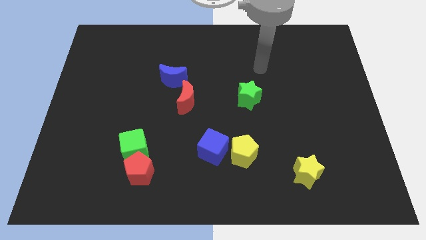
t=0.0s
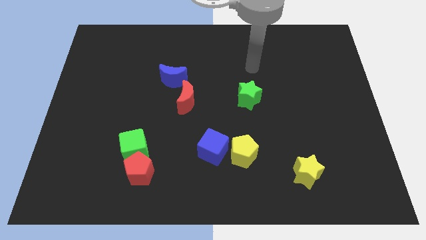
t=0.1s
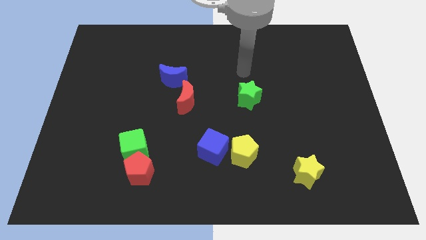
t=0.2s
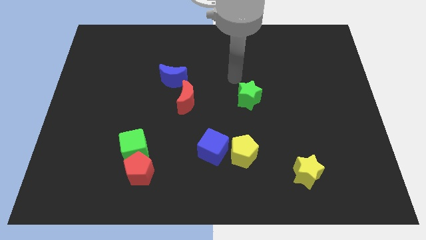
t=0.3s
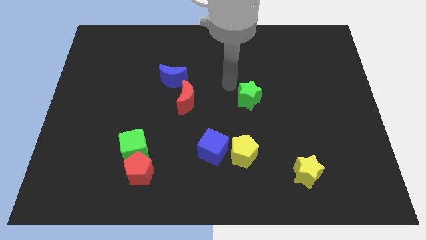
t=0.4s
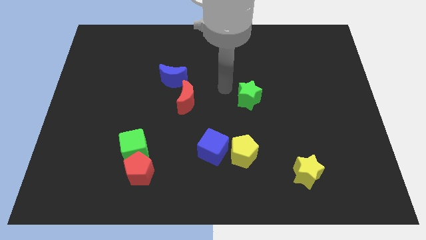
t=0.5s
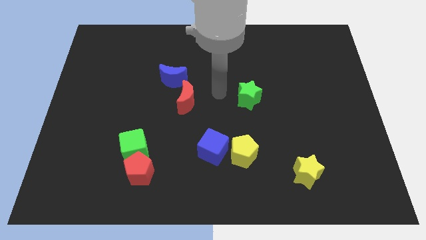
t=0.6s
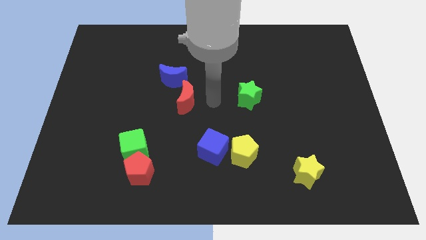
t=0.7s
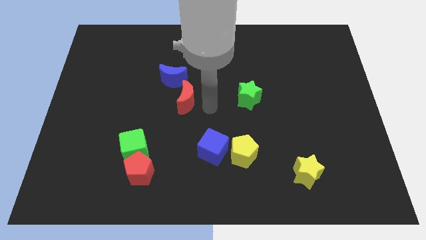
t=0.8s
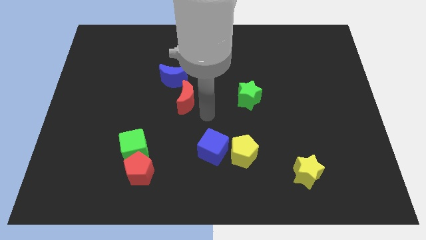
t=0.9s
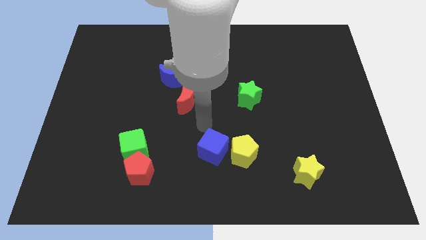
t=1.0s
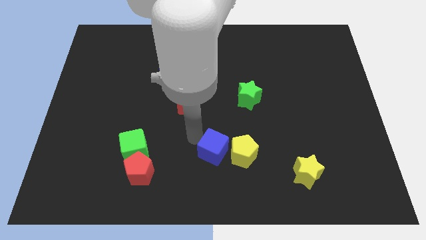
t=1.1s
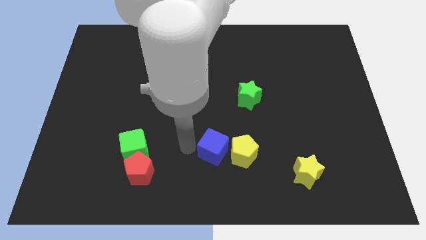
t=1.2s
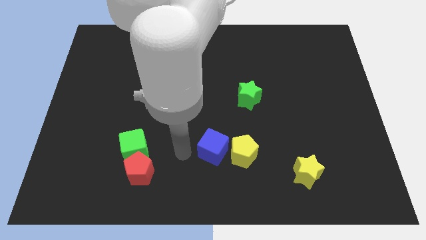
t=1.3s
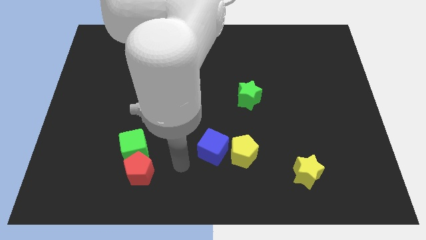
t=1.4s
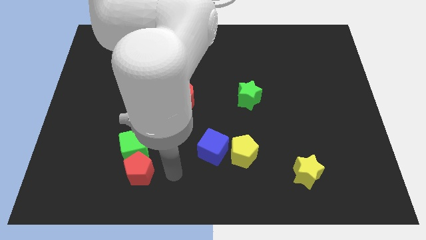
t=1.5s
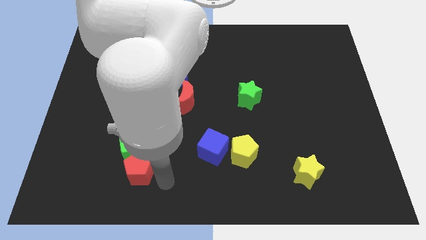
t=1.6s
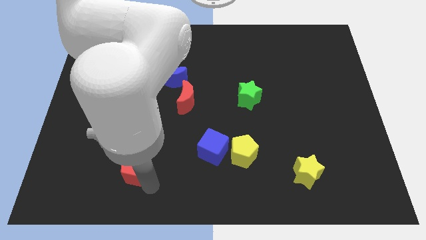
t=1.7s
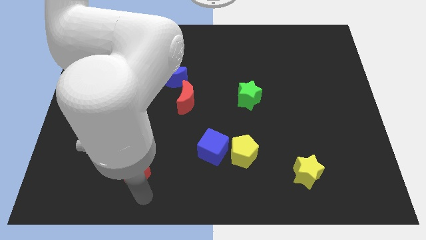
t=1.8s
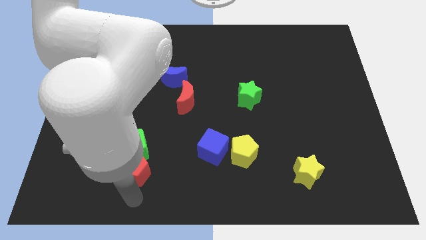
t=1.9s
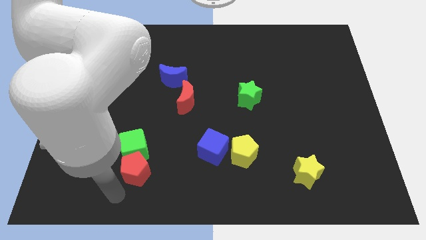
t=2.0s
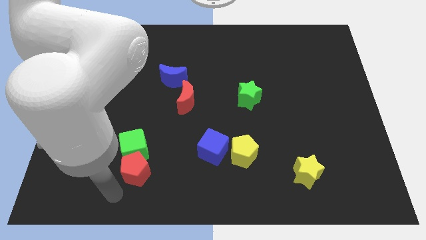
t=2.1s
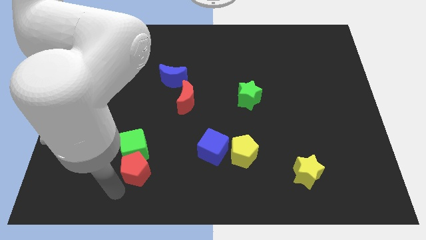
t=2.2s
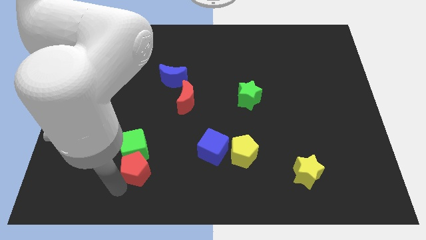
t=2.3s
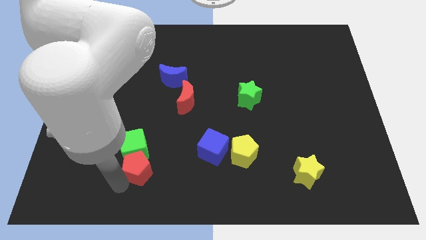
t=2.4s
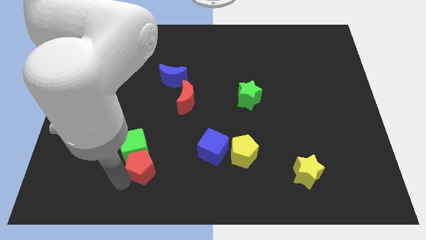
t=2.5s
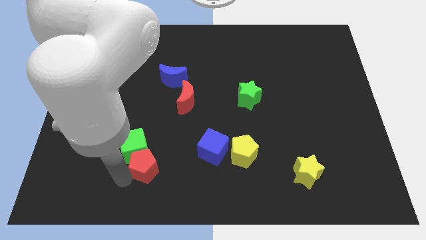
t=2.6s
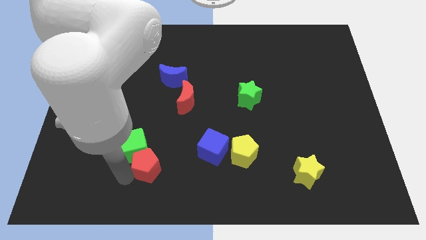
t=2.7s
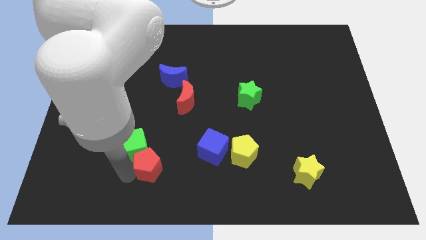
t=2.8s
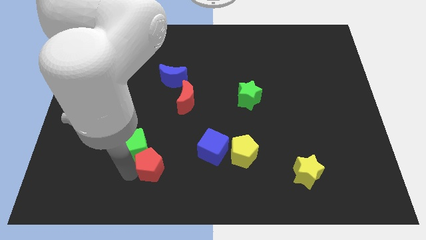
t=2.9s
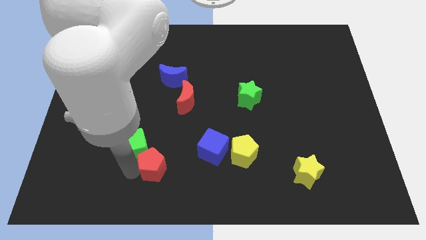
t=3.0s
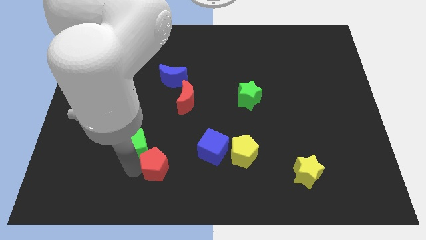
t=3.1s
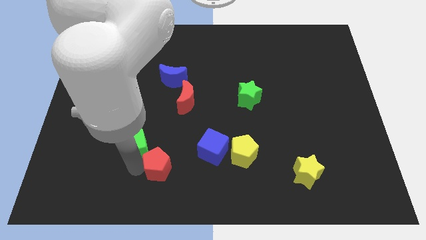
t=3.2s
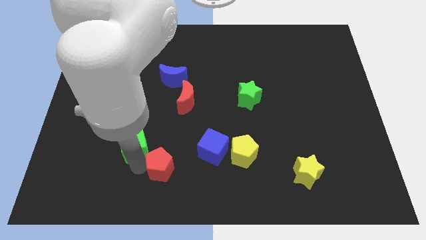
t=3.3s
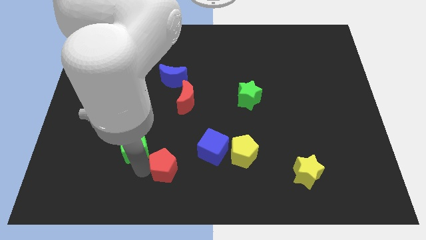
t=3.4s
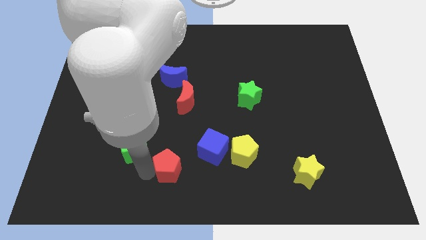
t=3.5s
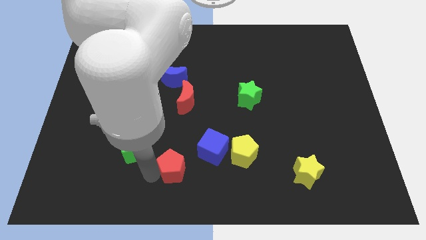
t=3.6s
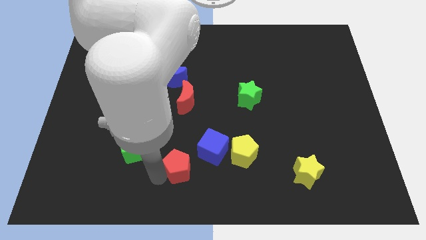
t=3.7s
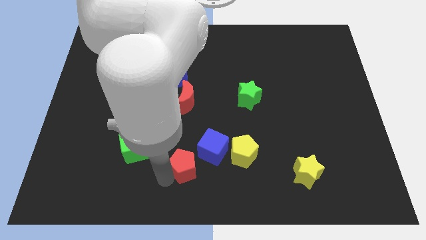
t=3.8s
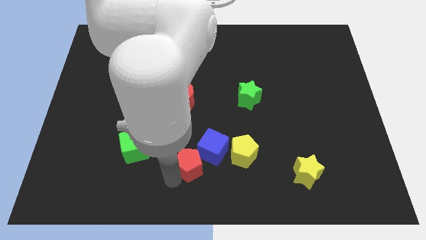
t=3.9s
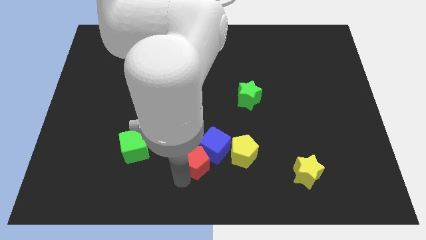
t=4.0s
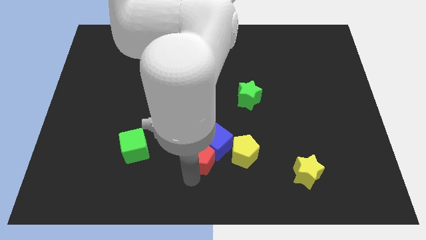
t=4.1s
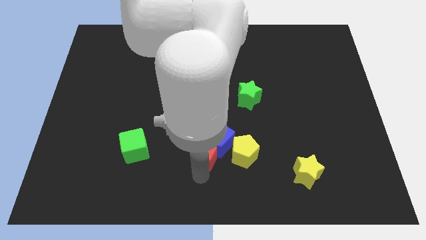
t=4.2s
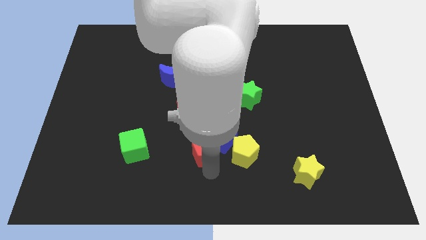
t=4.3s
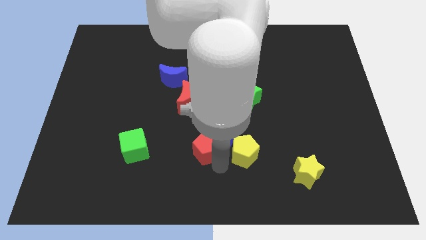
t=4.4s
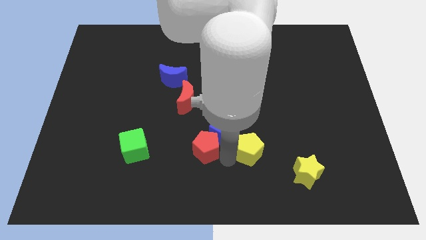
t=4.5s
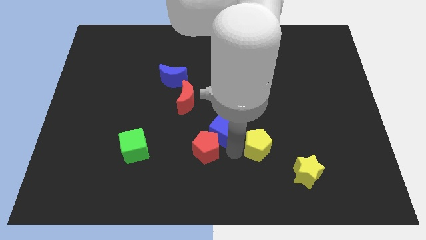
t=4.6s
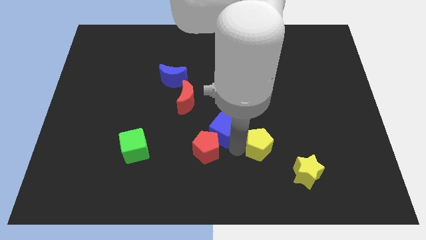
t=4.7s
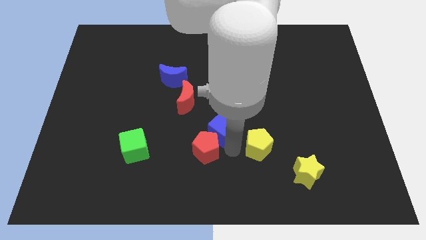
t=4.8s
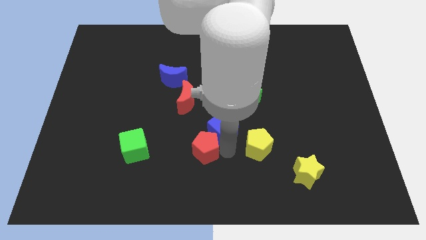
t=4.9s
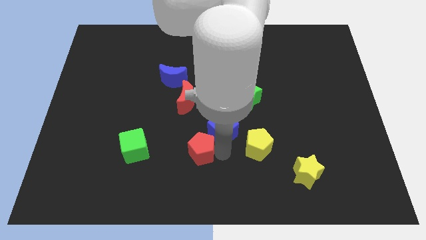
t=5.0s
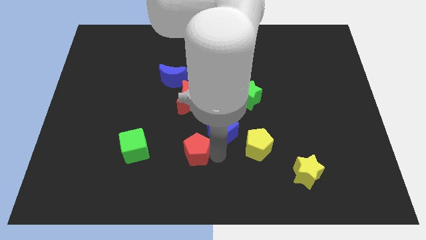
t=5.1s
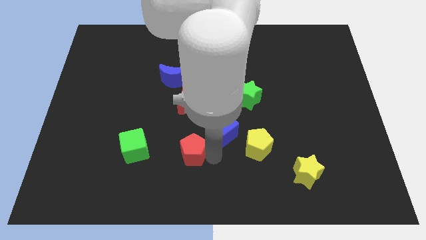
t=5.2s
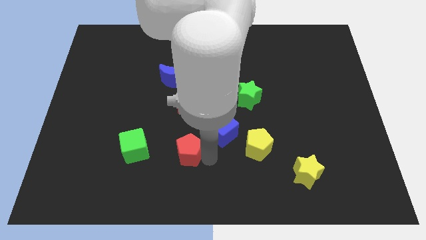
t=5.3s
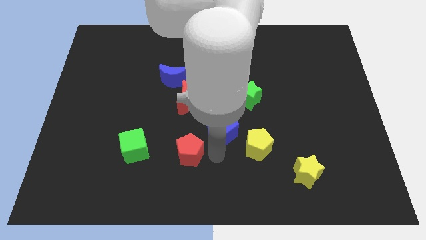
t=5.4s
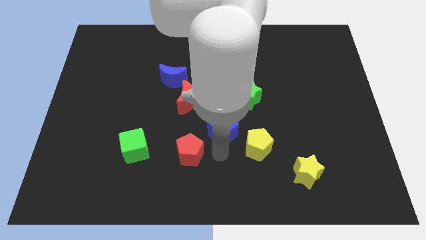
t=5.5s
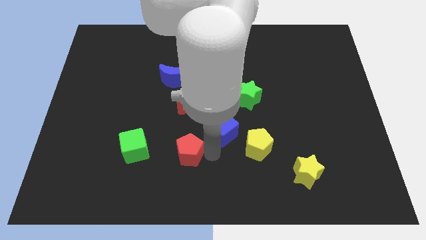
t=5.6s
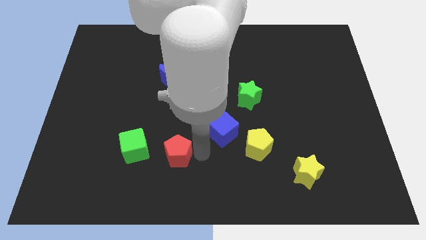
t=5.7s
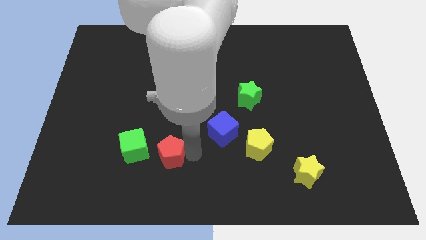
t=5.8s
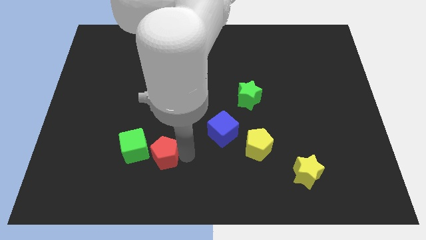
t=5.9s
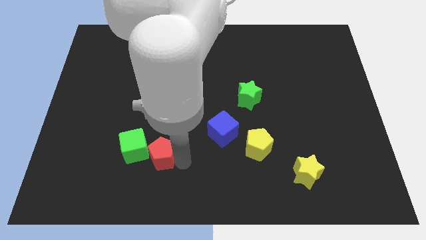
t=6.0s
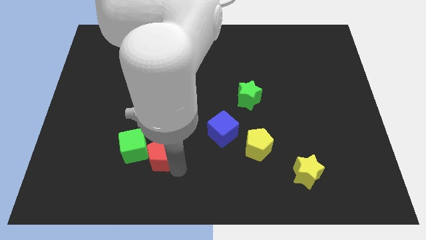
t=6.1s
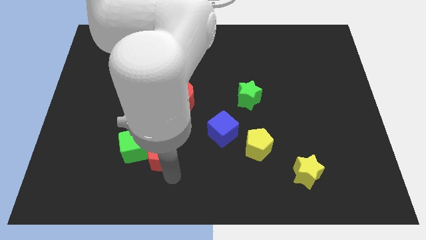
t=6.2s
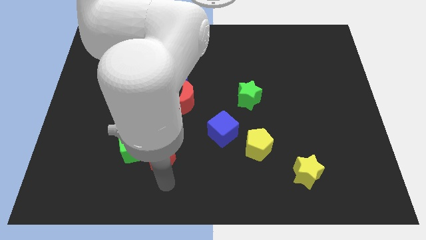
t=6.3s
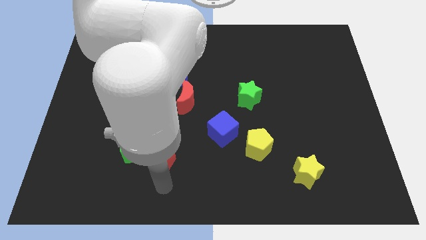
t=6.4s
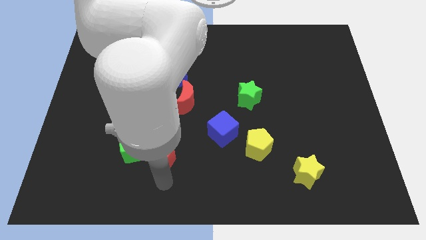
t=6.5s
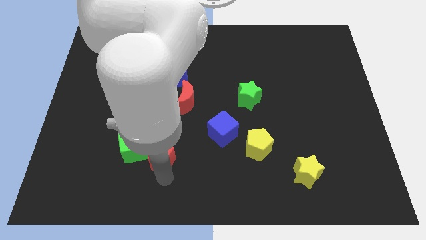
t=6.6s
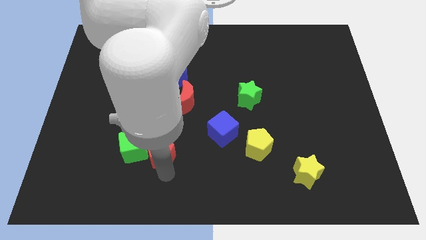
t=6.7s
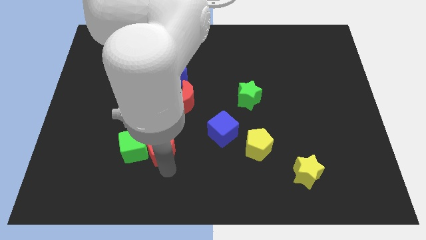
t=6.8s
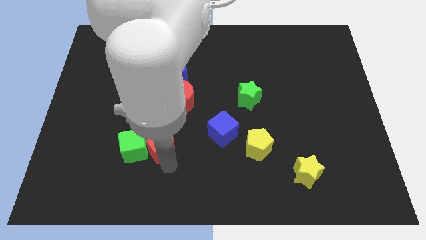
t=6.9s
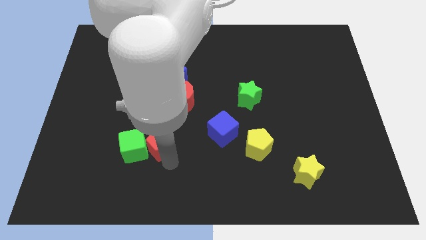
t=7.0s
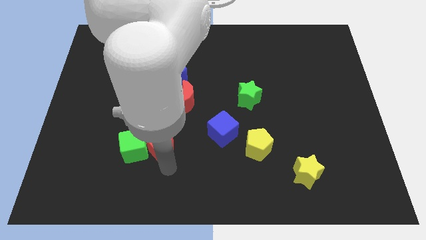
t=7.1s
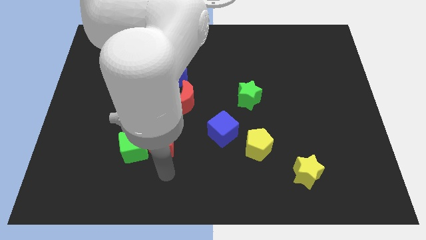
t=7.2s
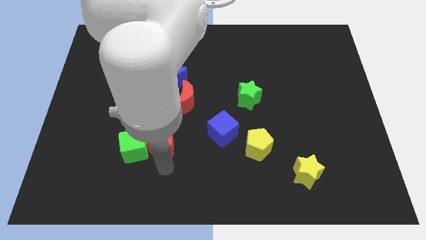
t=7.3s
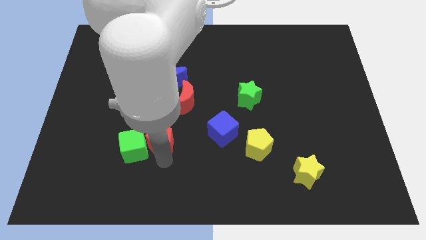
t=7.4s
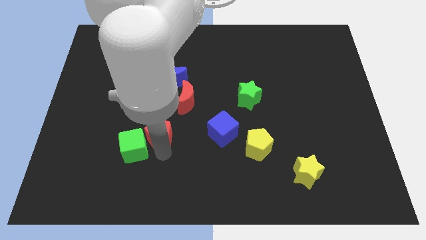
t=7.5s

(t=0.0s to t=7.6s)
slightly move the red pentagon up

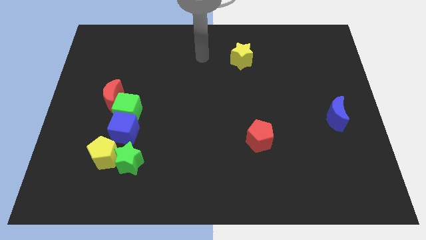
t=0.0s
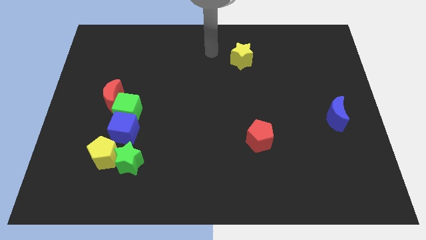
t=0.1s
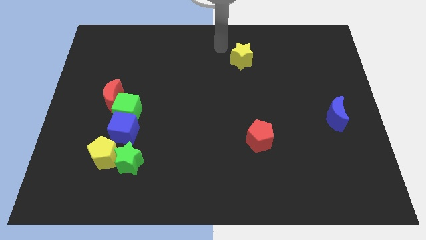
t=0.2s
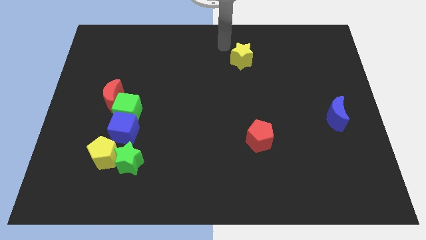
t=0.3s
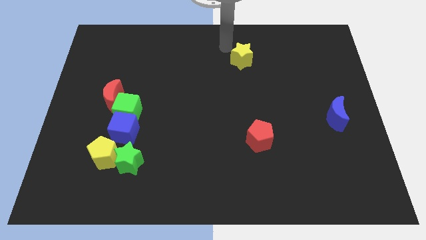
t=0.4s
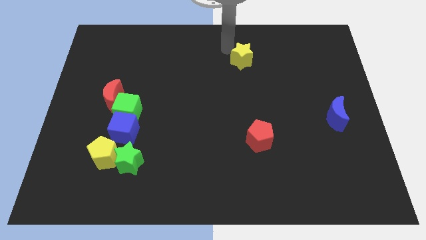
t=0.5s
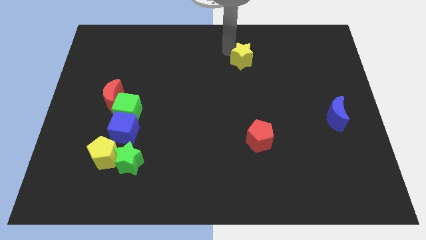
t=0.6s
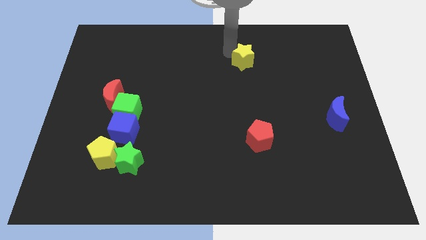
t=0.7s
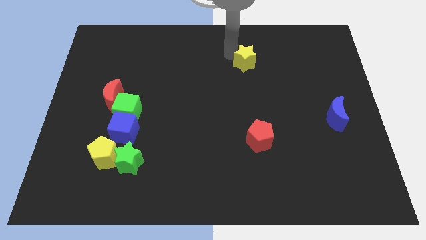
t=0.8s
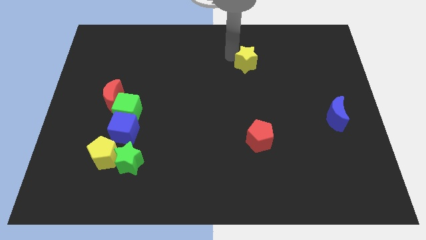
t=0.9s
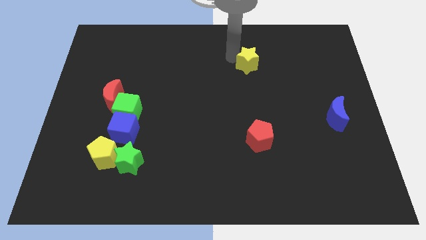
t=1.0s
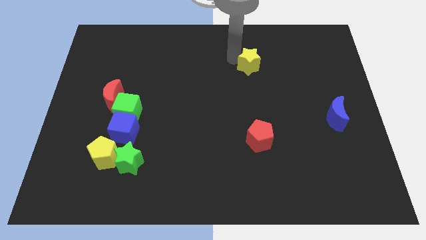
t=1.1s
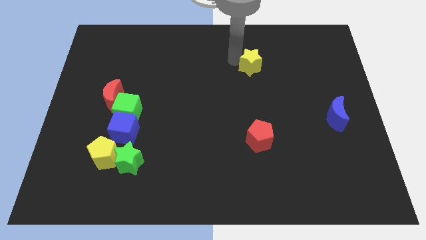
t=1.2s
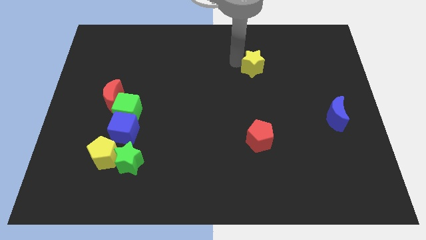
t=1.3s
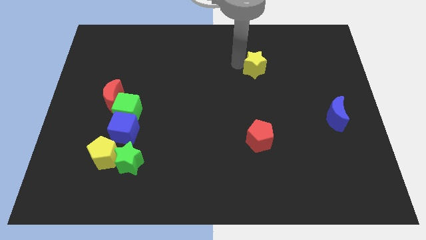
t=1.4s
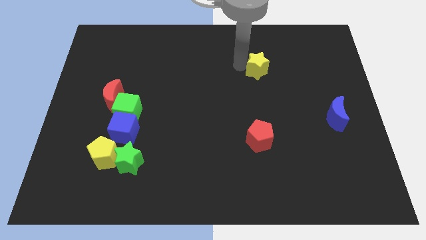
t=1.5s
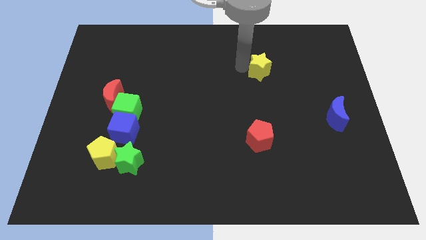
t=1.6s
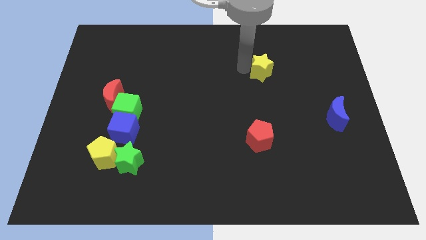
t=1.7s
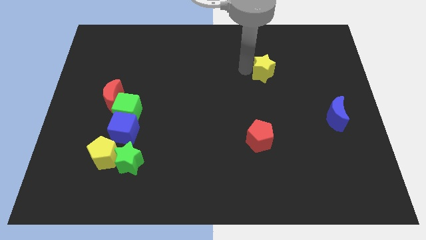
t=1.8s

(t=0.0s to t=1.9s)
slightly move the yellow star down and then to the right
